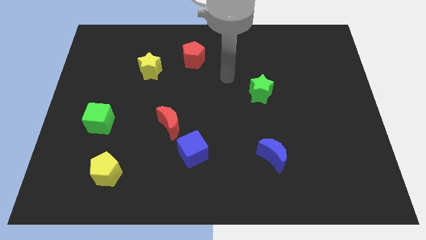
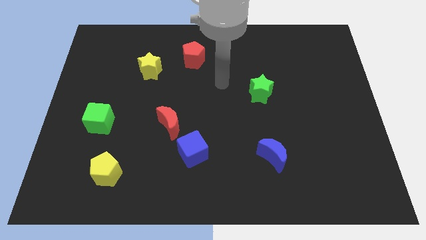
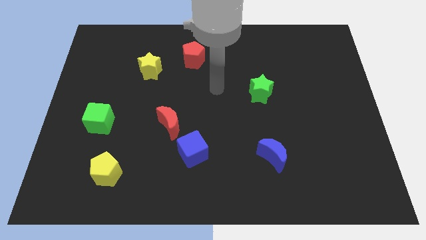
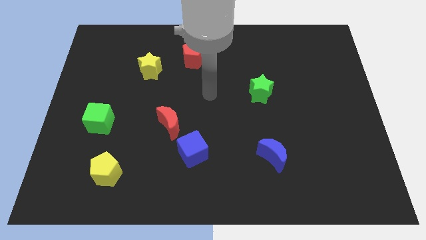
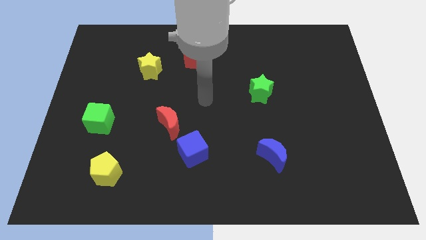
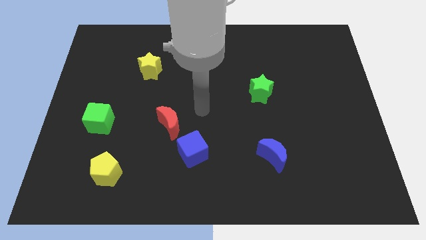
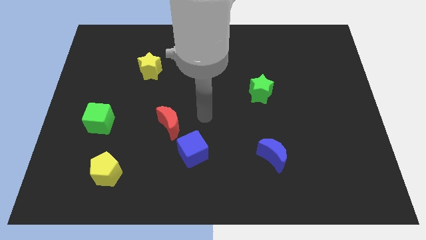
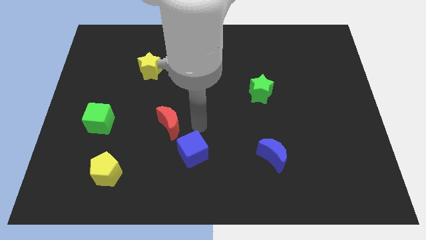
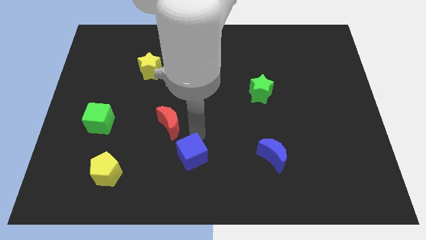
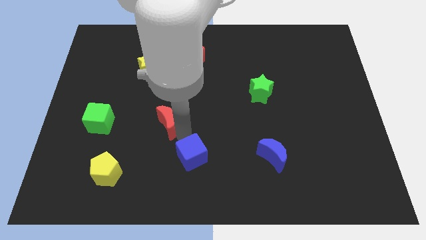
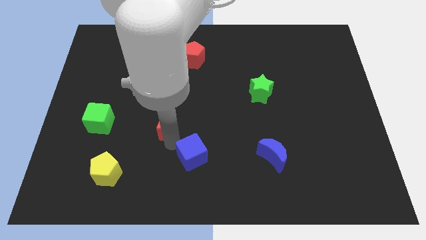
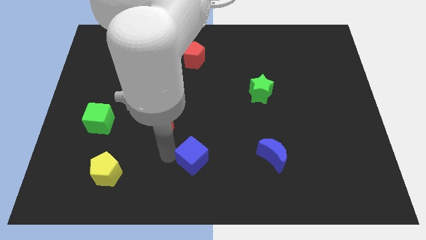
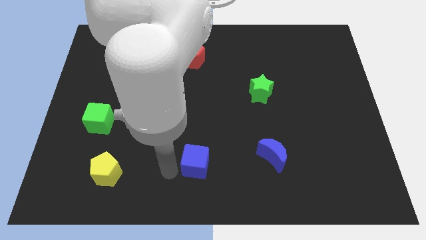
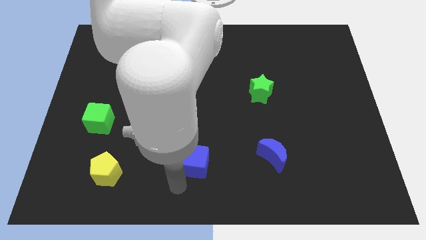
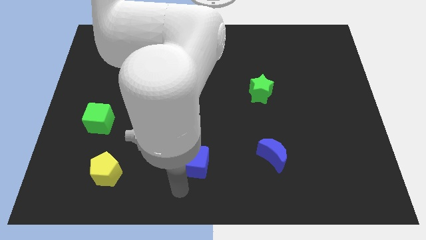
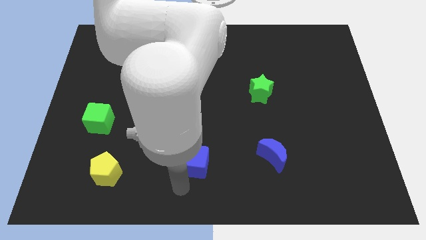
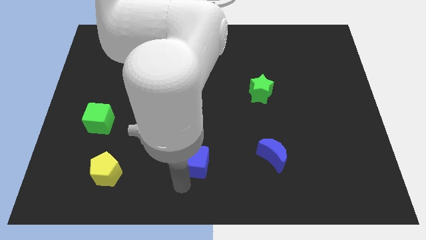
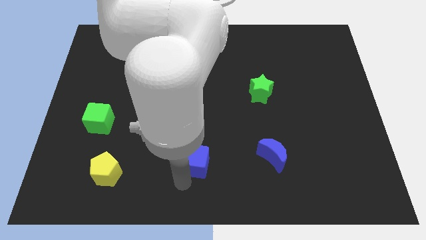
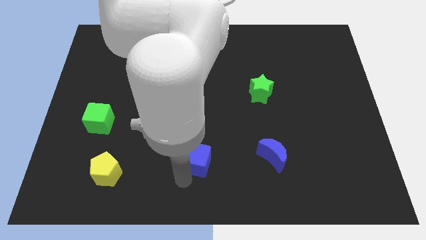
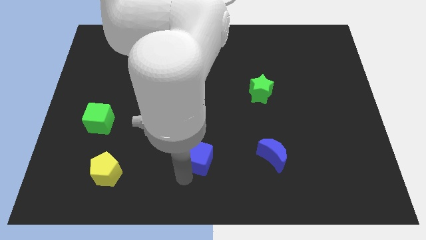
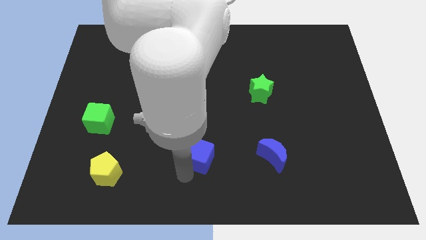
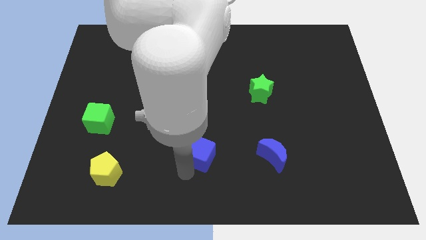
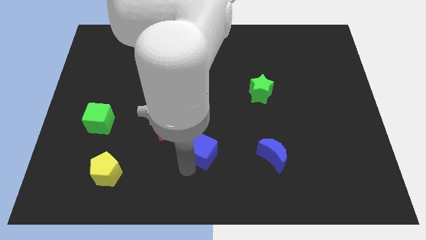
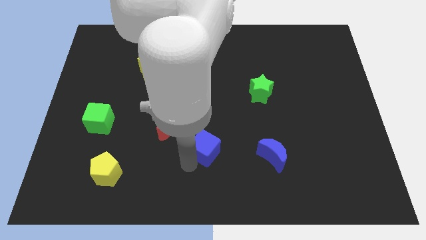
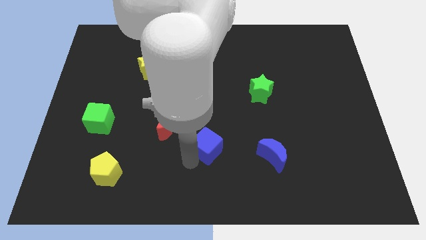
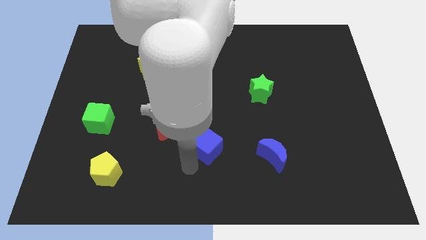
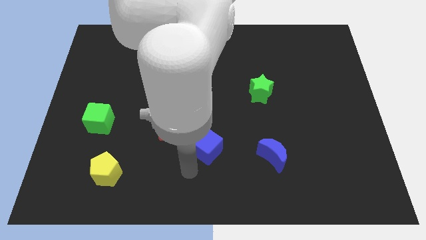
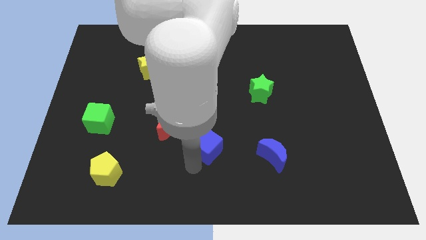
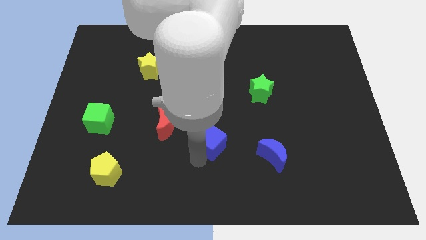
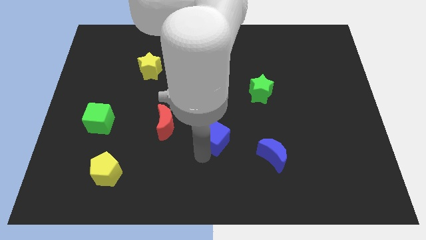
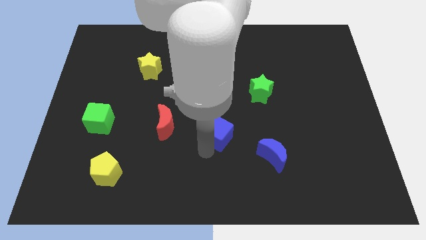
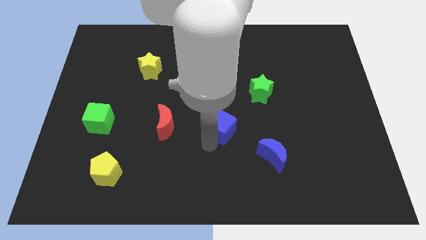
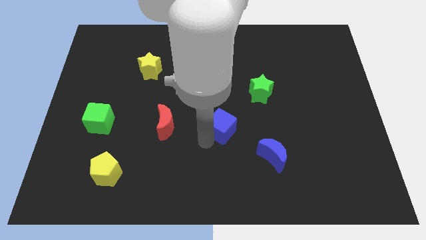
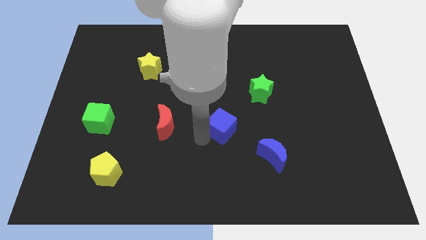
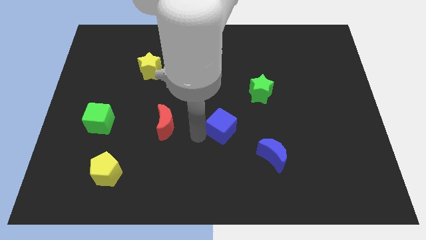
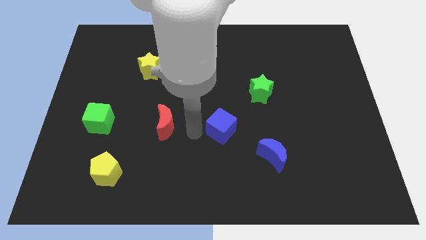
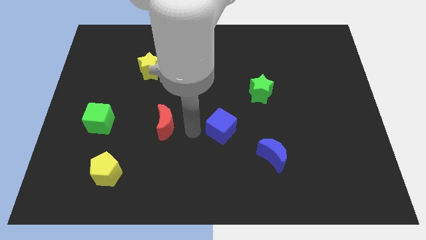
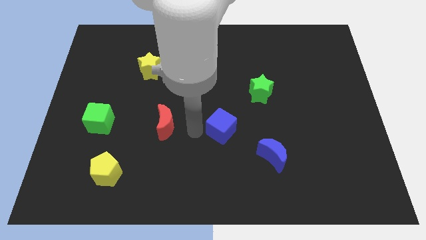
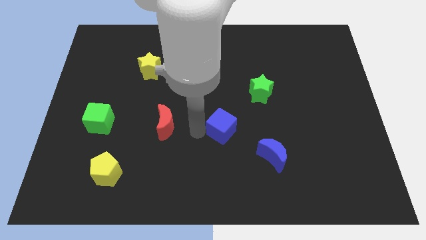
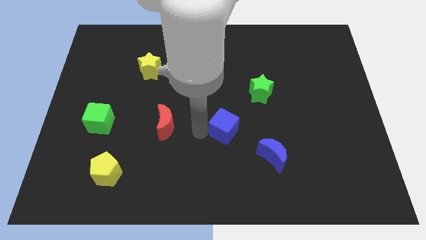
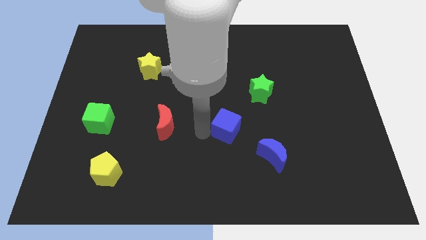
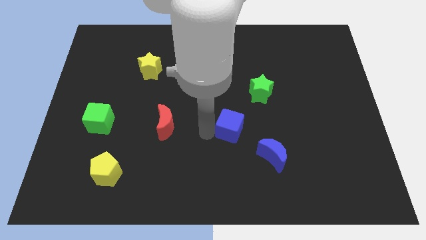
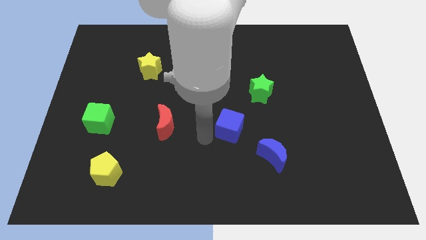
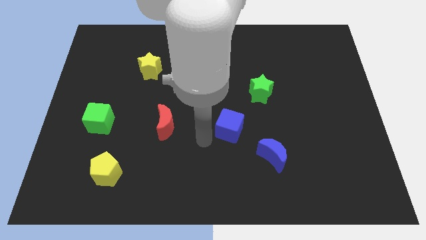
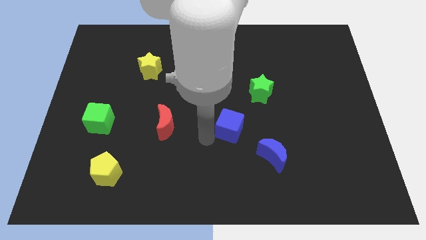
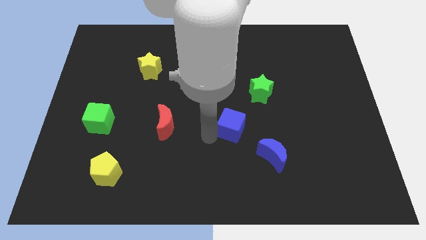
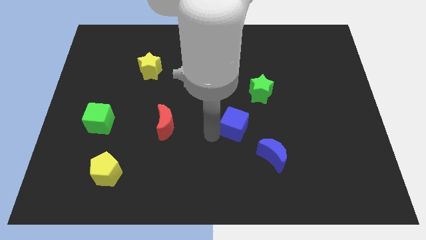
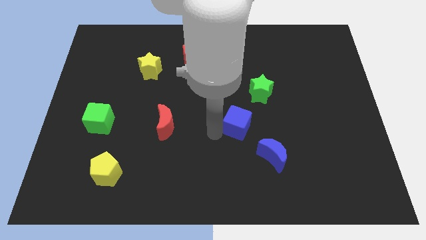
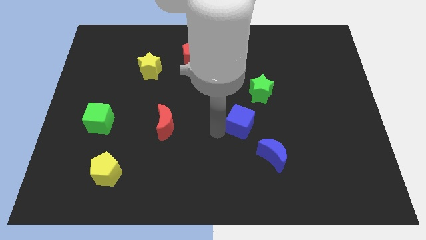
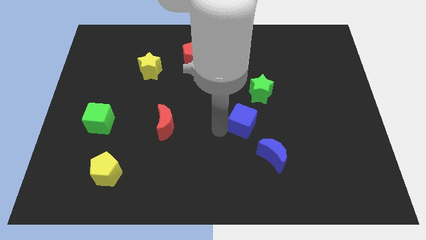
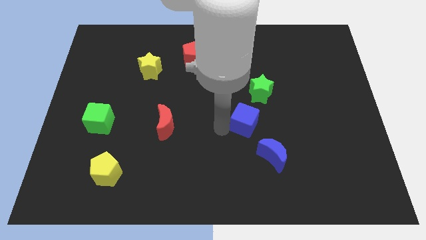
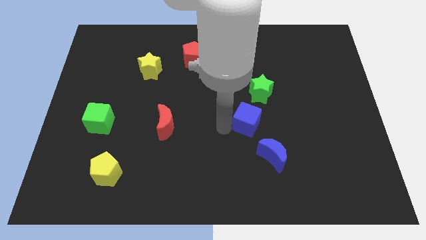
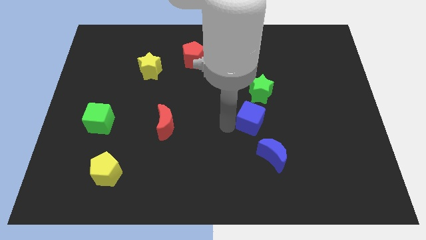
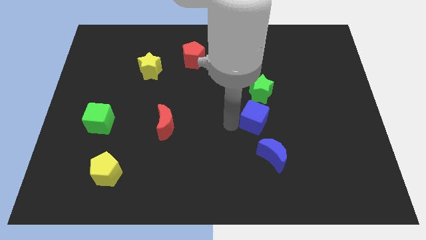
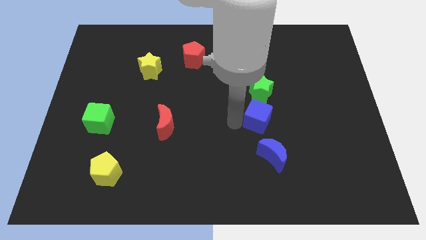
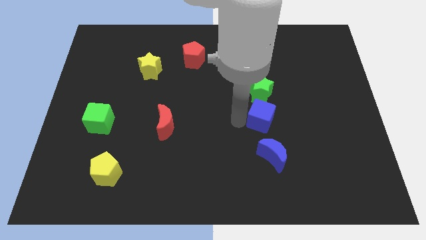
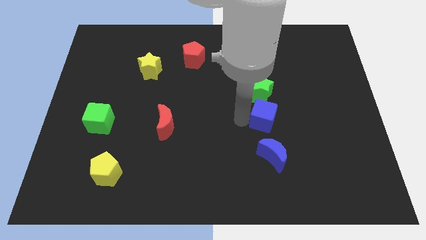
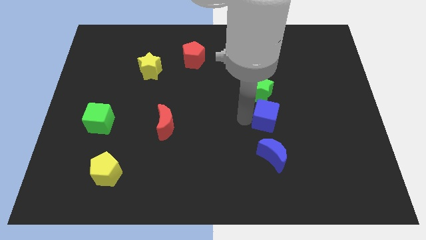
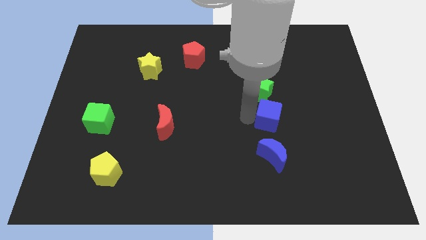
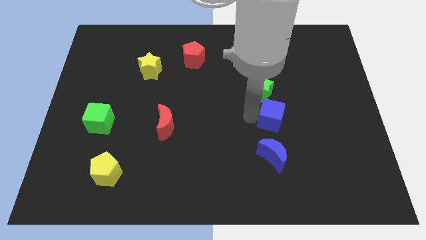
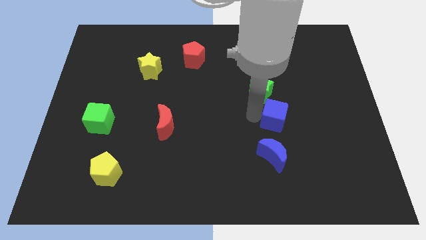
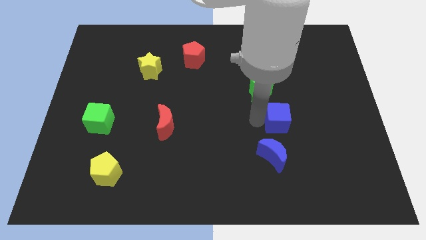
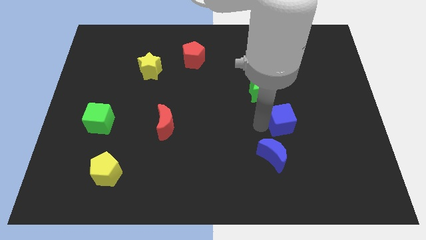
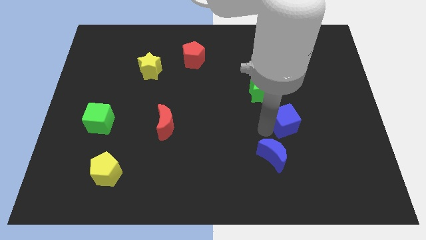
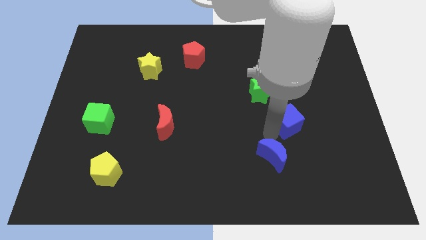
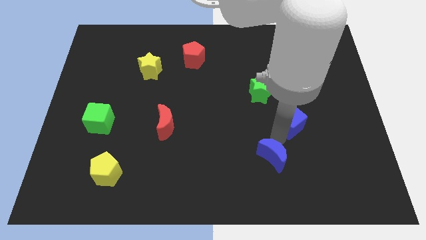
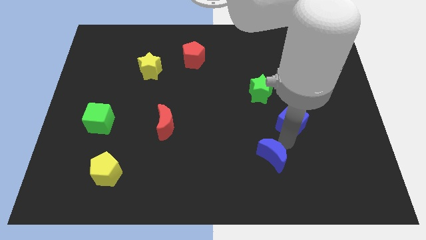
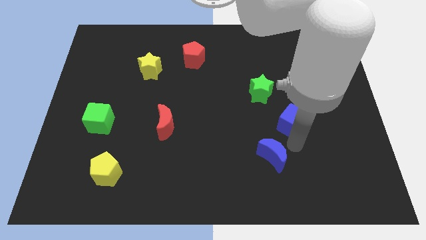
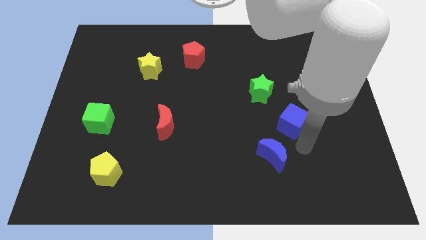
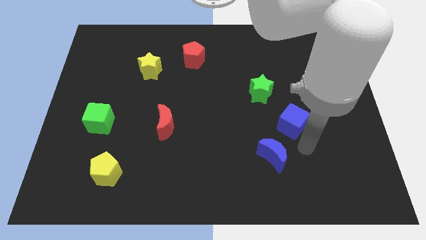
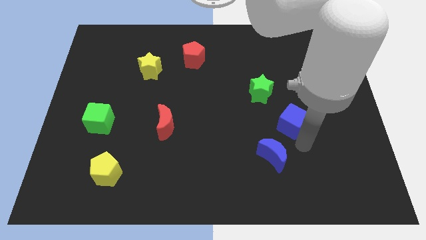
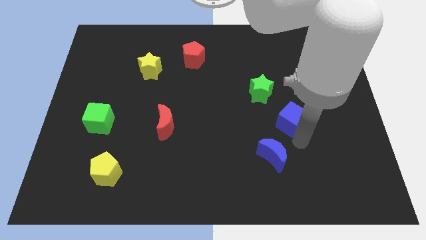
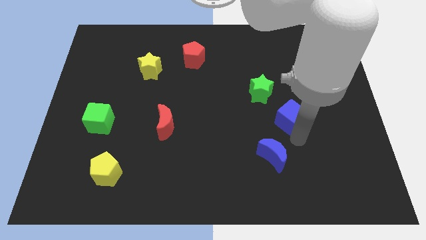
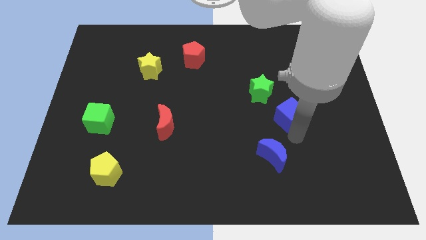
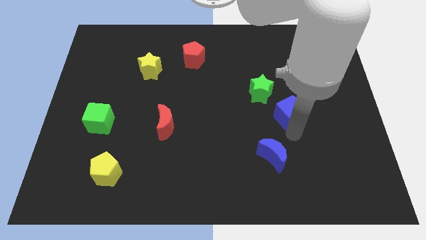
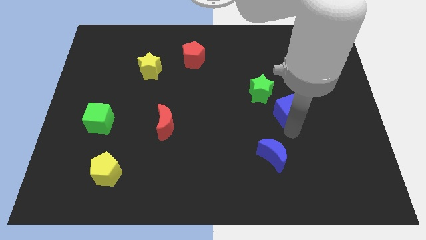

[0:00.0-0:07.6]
push the blue cube up and then right

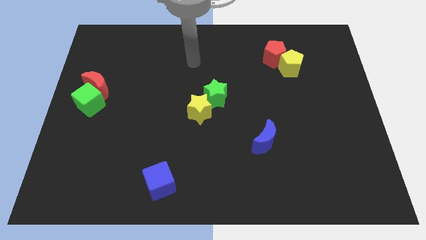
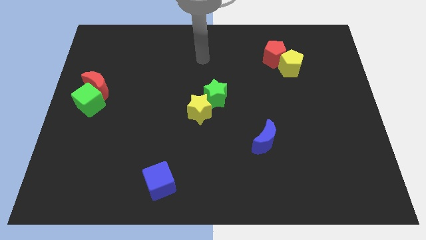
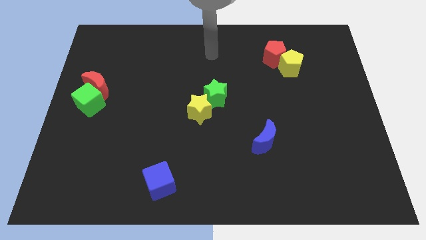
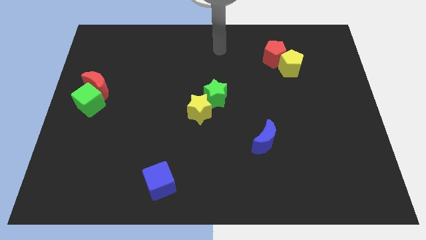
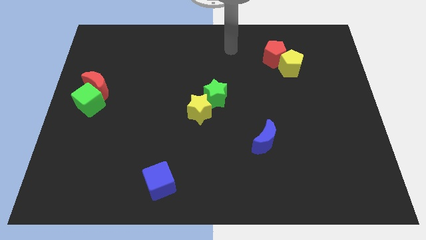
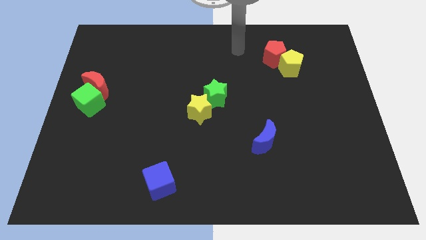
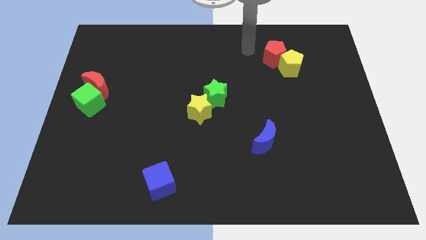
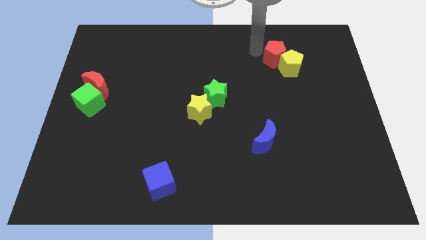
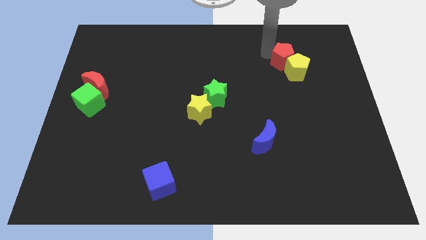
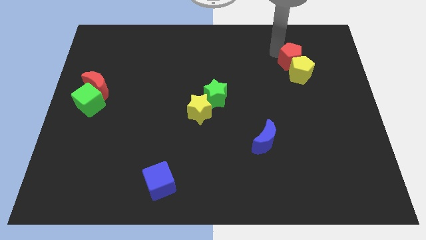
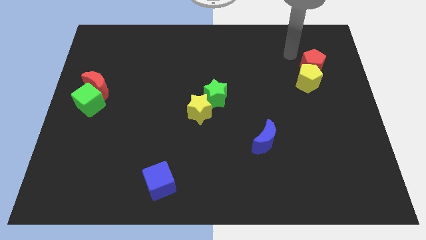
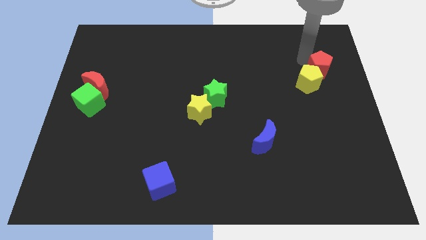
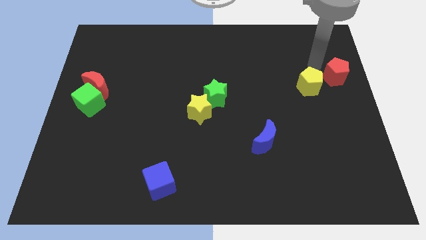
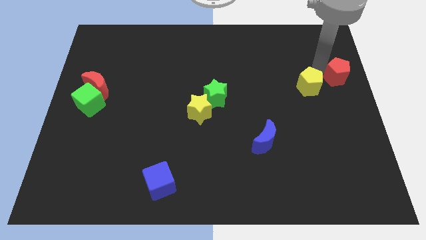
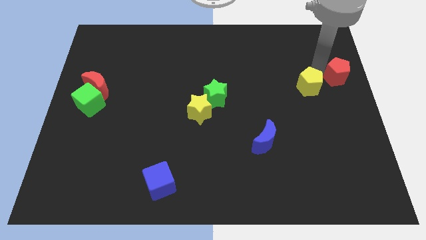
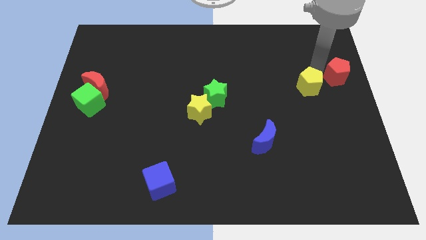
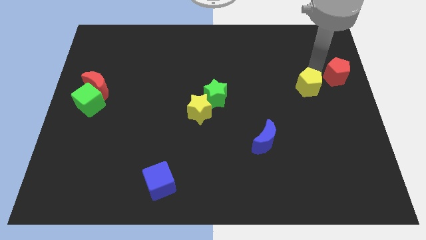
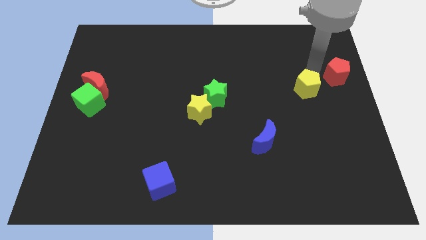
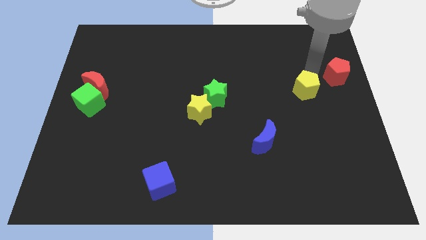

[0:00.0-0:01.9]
slightly slide the yellow pentagon down
